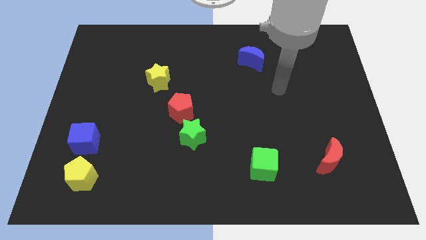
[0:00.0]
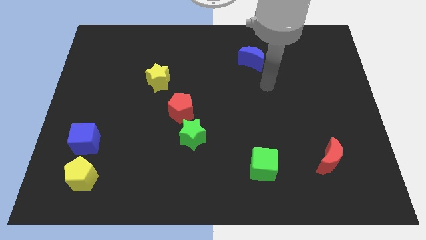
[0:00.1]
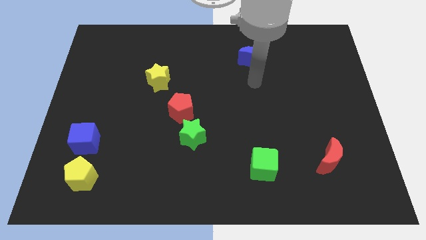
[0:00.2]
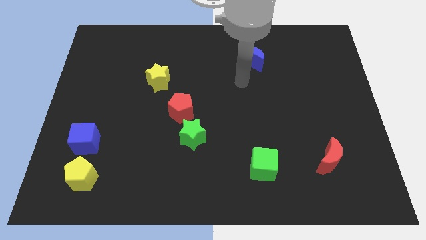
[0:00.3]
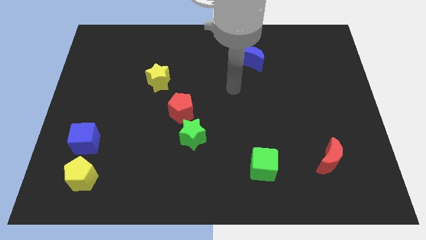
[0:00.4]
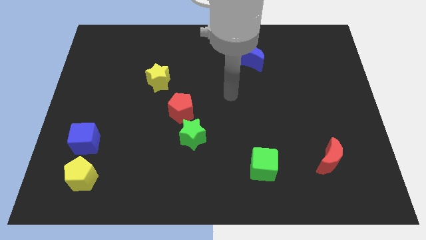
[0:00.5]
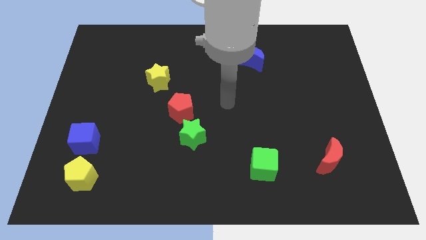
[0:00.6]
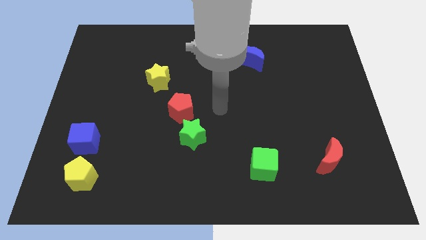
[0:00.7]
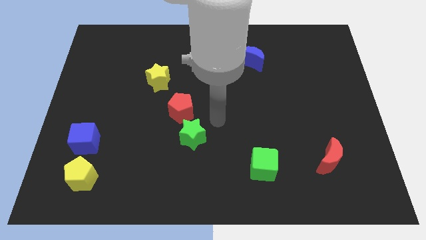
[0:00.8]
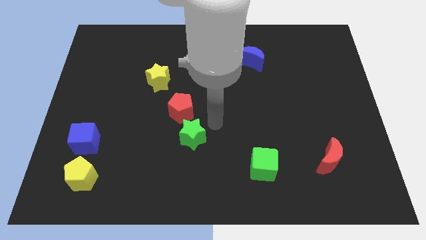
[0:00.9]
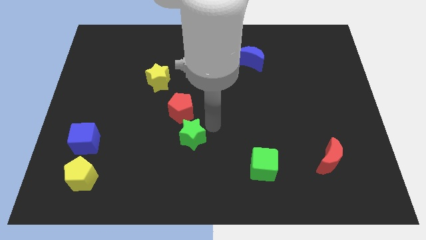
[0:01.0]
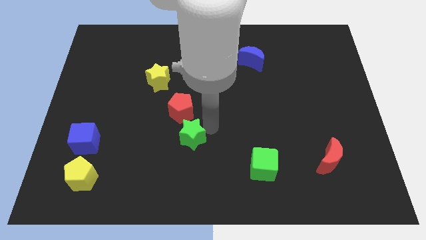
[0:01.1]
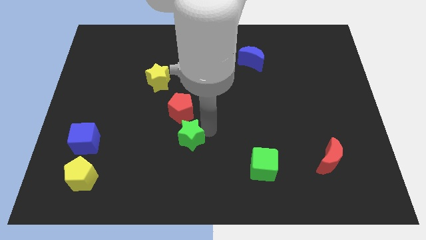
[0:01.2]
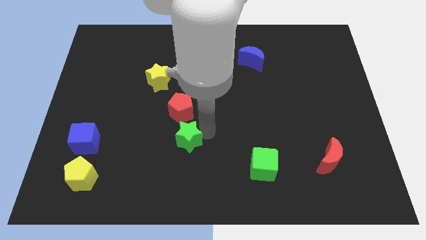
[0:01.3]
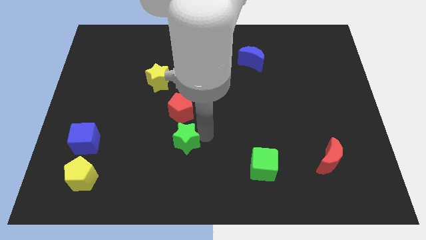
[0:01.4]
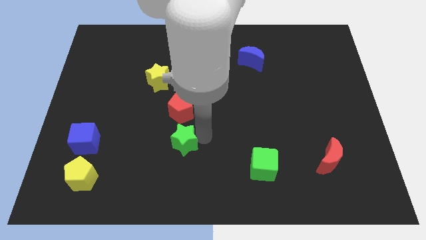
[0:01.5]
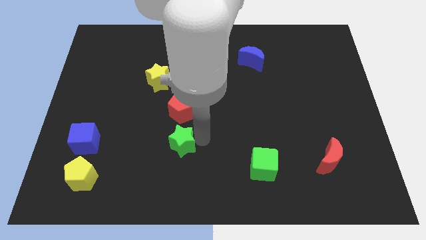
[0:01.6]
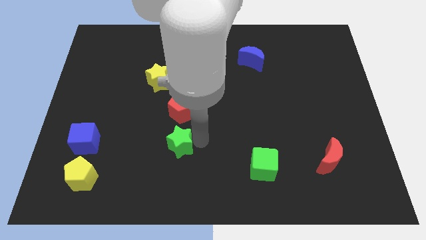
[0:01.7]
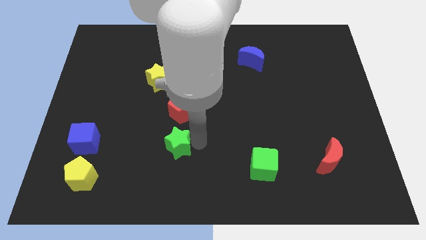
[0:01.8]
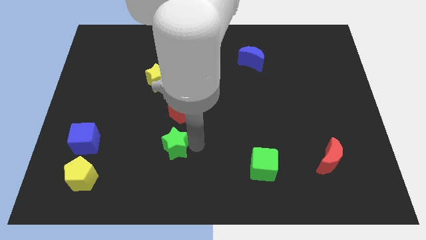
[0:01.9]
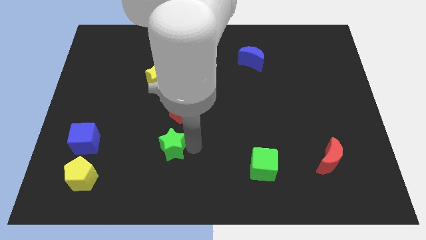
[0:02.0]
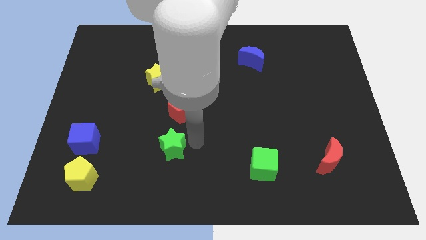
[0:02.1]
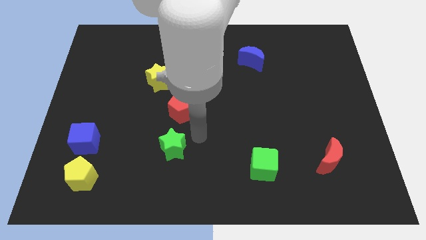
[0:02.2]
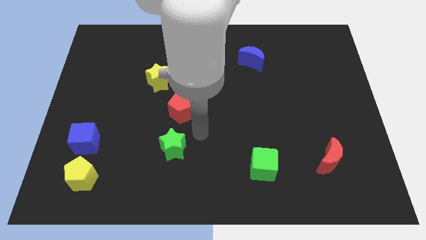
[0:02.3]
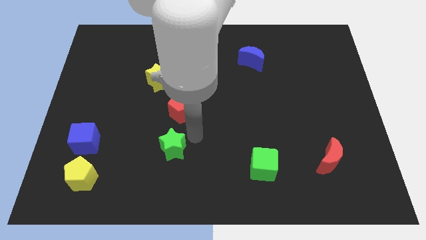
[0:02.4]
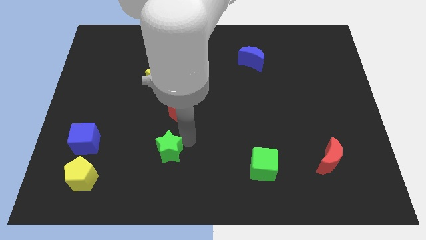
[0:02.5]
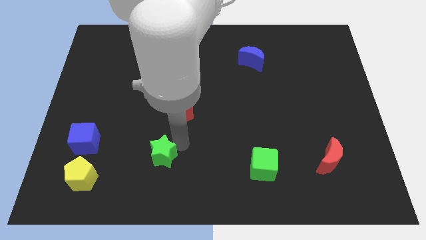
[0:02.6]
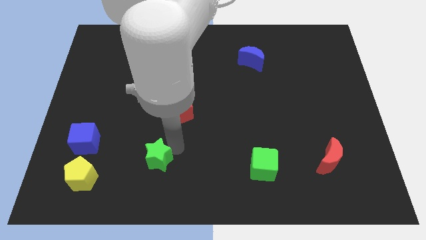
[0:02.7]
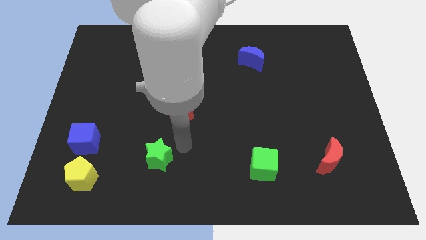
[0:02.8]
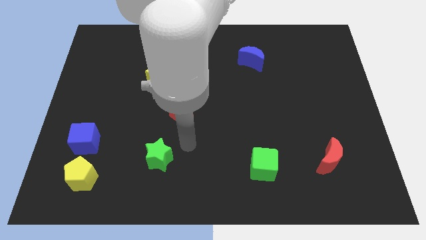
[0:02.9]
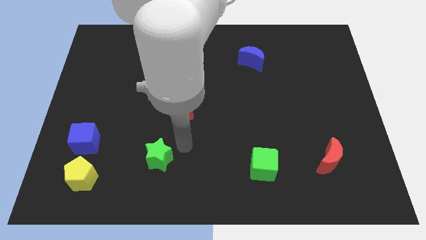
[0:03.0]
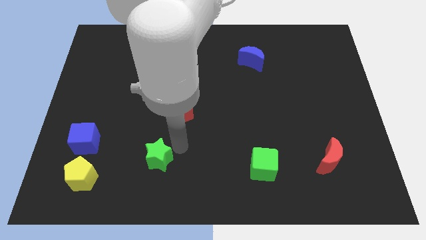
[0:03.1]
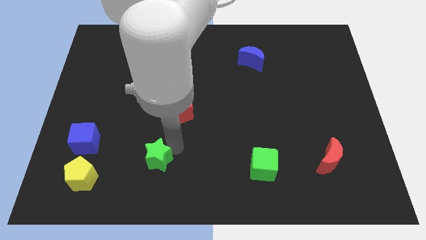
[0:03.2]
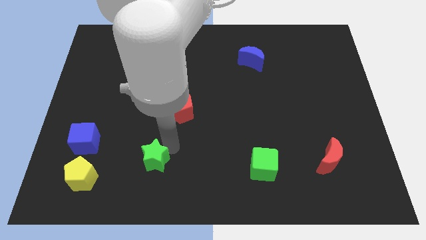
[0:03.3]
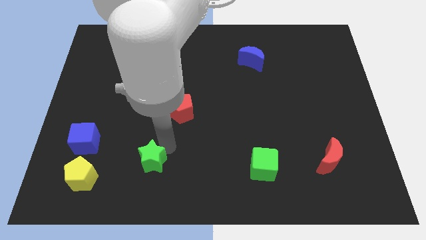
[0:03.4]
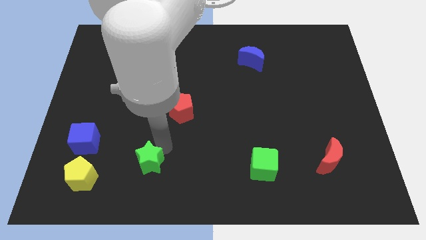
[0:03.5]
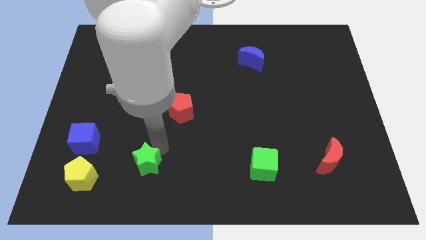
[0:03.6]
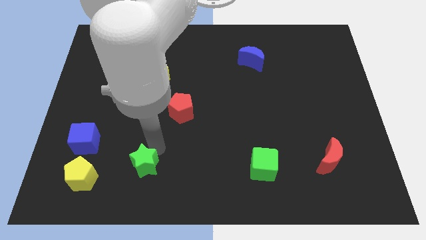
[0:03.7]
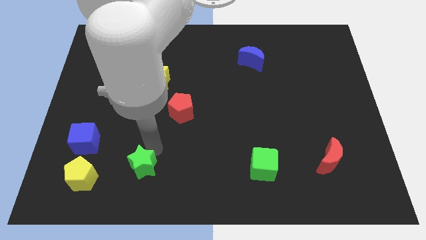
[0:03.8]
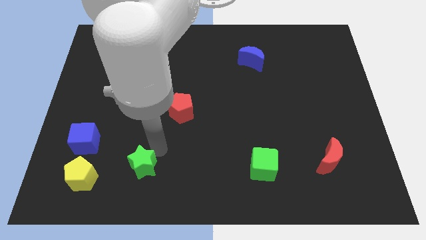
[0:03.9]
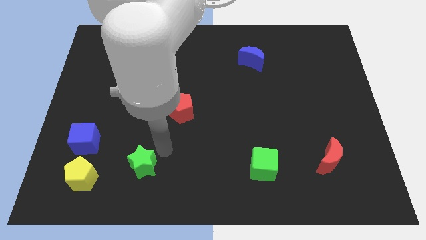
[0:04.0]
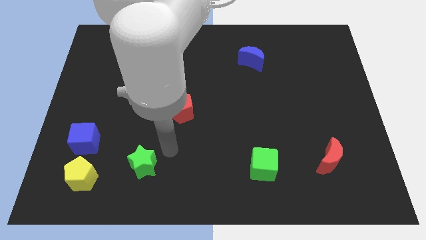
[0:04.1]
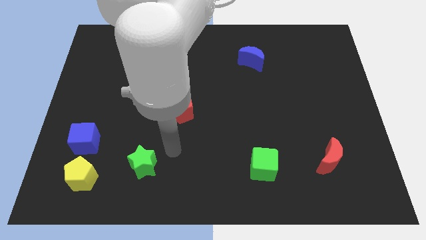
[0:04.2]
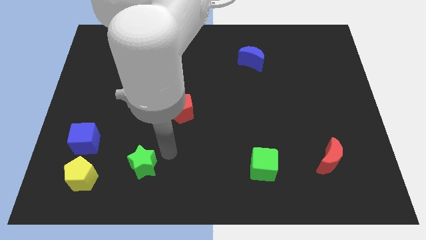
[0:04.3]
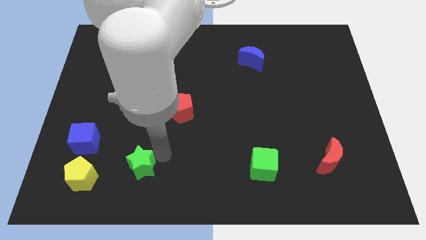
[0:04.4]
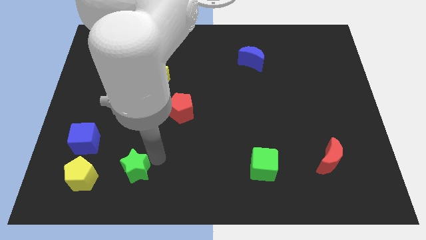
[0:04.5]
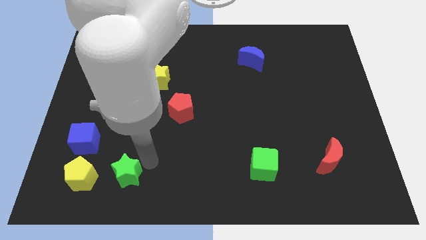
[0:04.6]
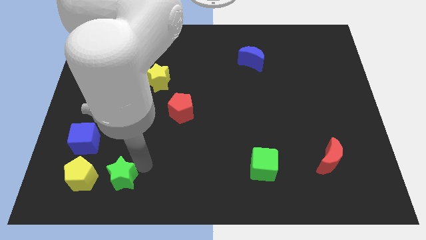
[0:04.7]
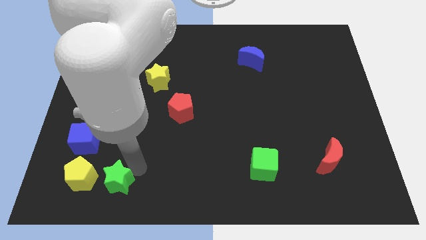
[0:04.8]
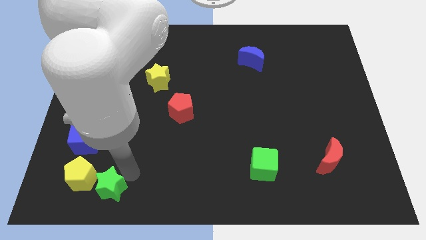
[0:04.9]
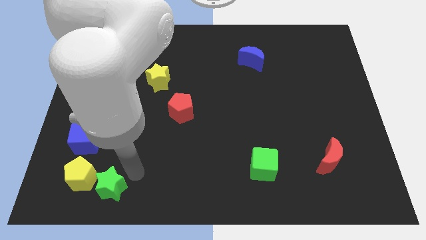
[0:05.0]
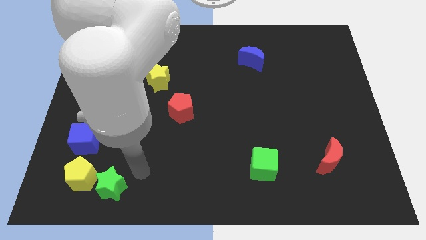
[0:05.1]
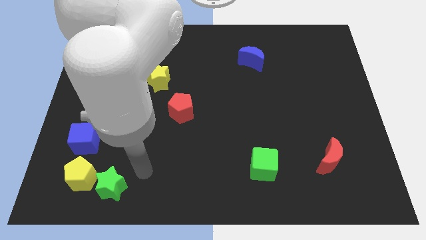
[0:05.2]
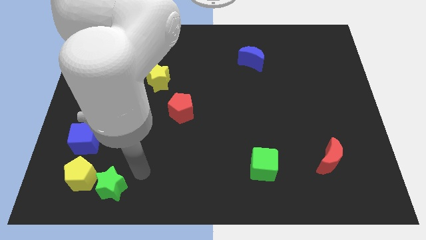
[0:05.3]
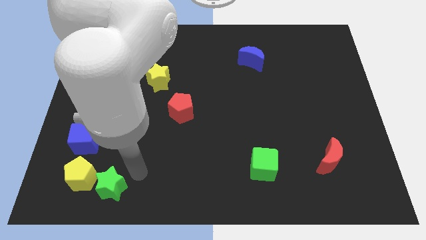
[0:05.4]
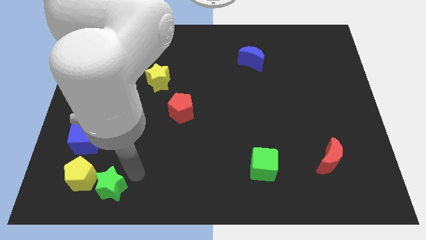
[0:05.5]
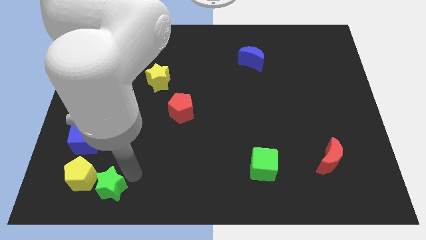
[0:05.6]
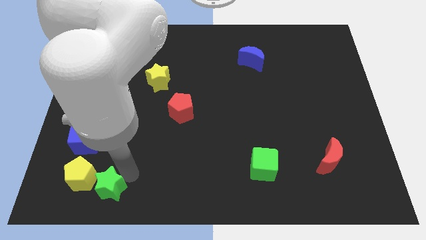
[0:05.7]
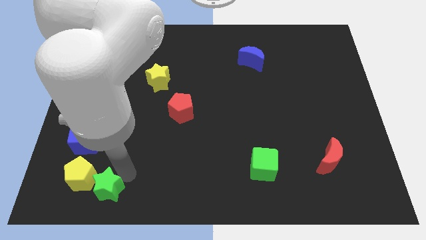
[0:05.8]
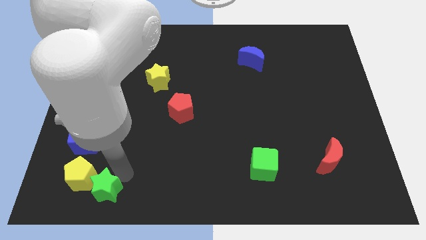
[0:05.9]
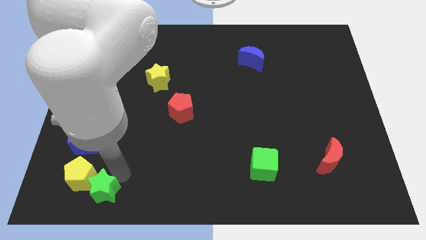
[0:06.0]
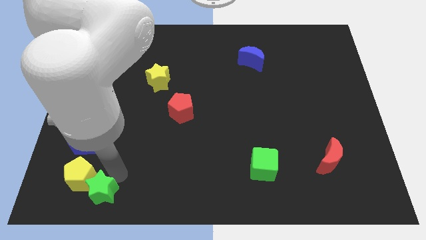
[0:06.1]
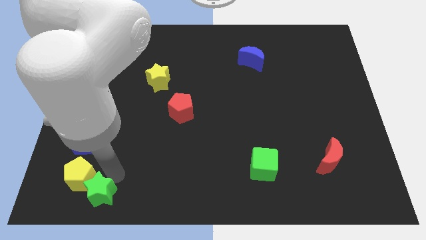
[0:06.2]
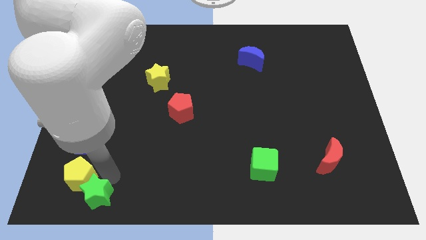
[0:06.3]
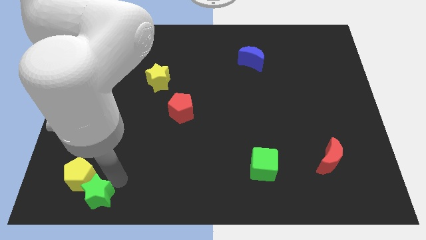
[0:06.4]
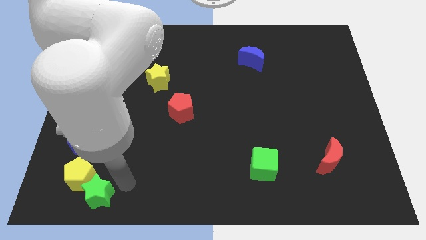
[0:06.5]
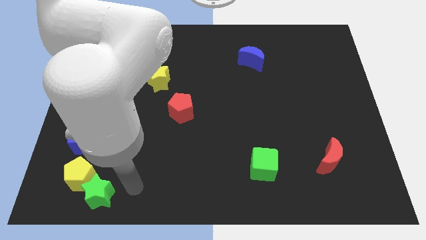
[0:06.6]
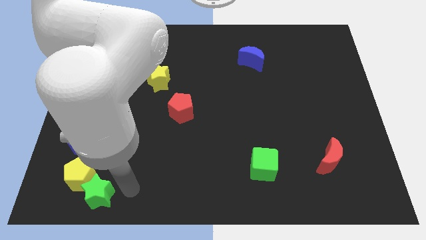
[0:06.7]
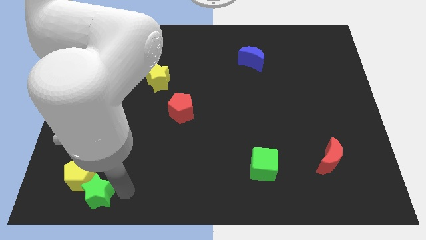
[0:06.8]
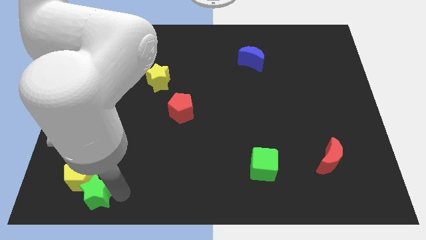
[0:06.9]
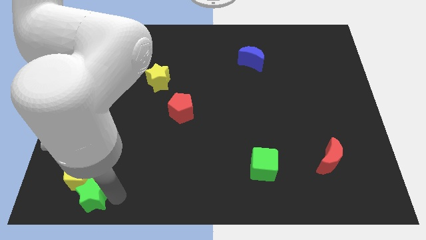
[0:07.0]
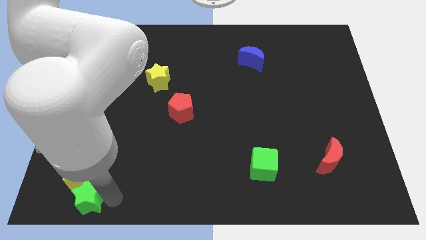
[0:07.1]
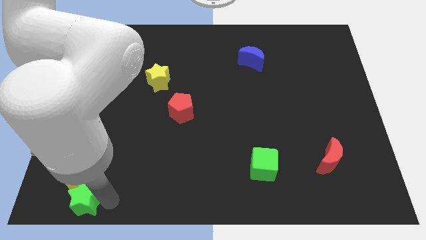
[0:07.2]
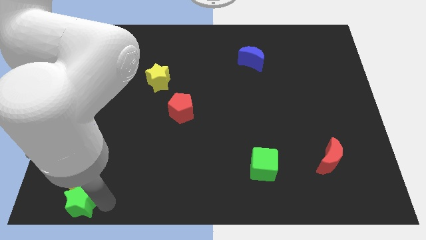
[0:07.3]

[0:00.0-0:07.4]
slide the green star to the bottom left corner

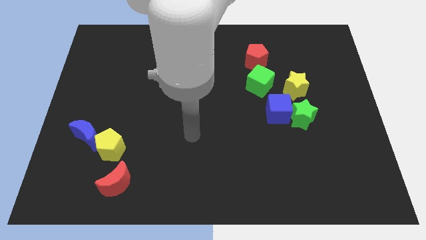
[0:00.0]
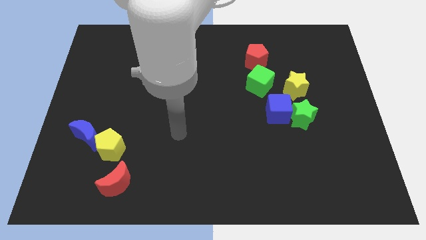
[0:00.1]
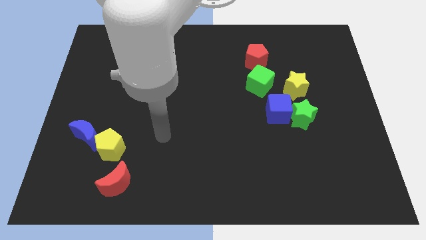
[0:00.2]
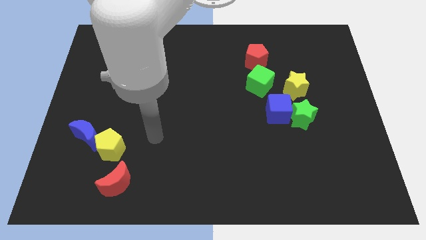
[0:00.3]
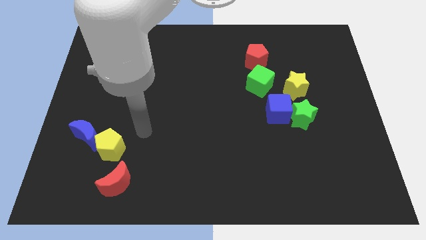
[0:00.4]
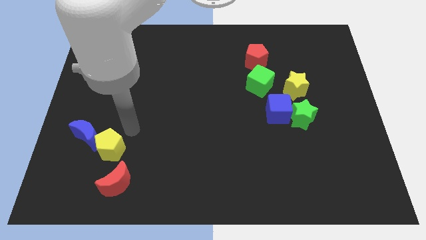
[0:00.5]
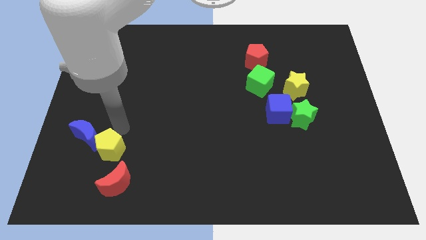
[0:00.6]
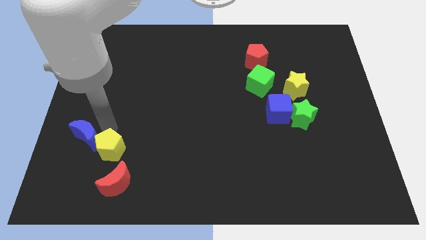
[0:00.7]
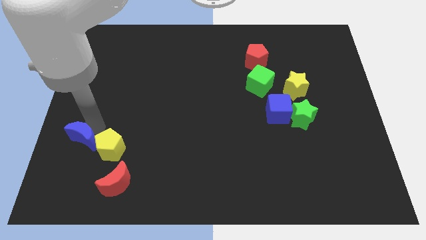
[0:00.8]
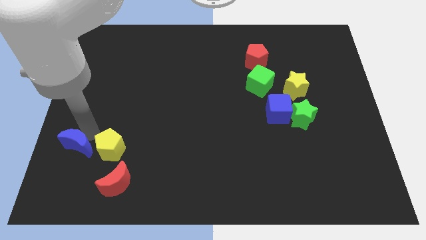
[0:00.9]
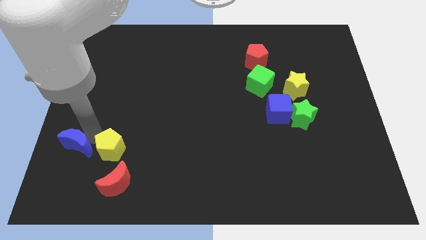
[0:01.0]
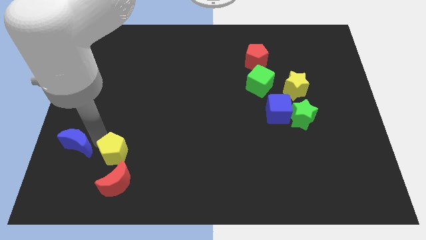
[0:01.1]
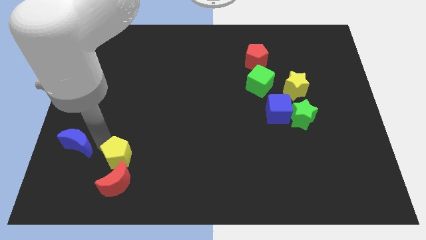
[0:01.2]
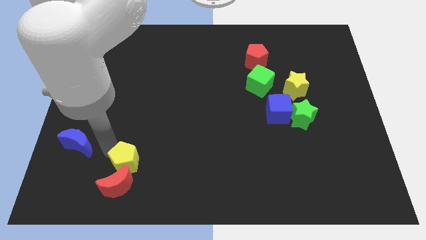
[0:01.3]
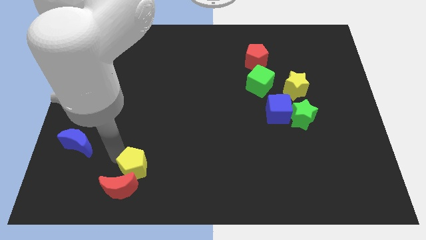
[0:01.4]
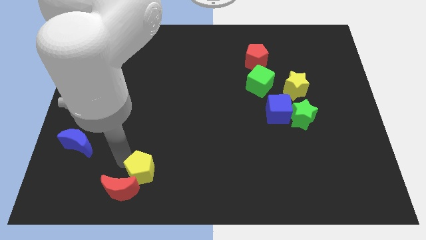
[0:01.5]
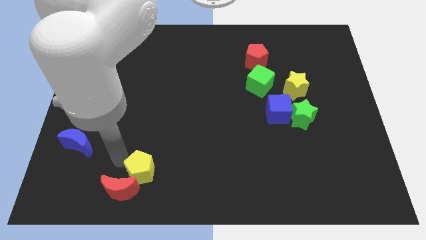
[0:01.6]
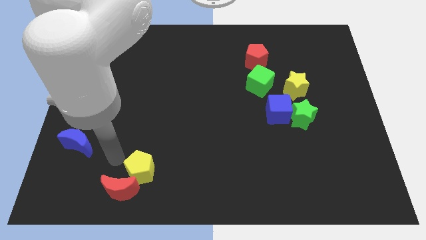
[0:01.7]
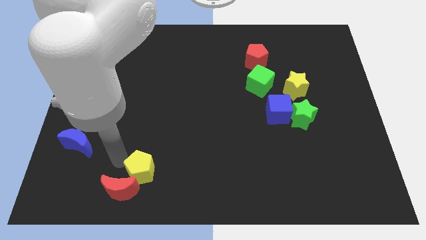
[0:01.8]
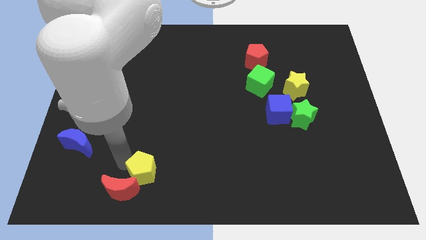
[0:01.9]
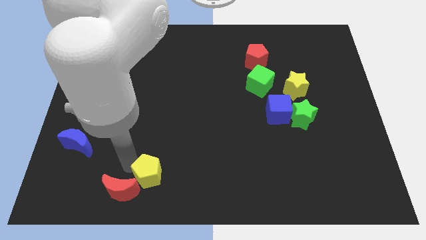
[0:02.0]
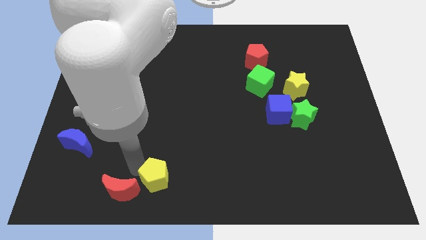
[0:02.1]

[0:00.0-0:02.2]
slide the yellow pentagon to the bottom
